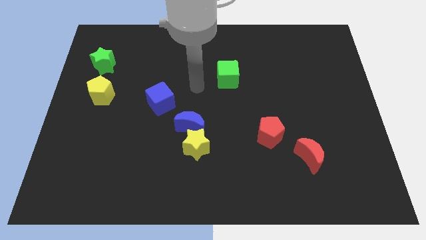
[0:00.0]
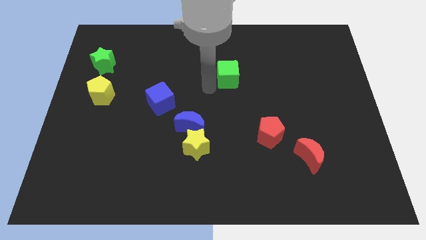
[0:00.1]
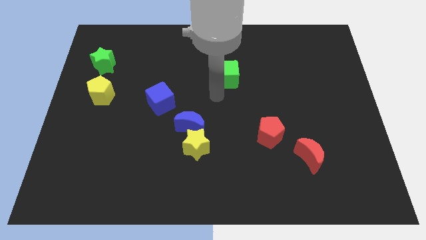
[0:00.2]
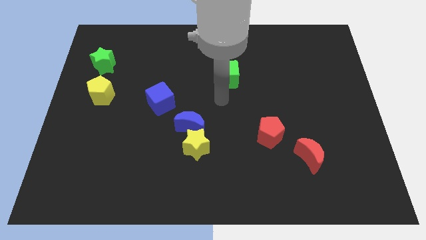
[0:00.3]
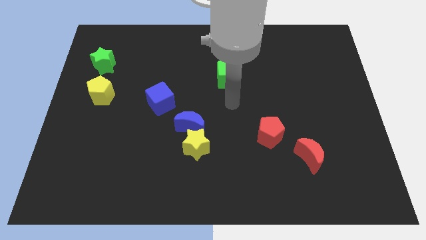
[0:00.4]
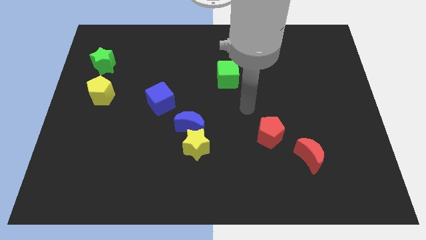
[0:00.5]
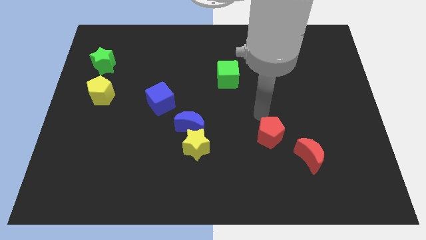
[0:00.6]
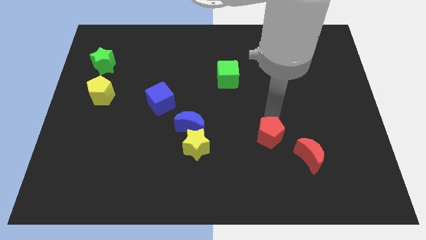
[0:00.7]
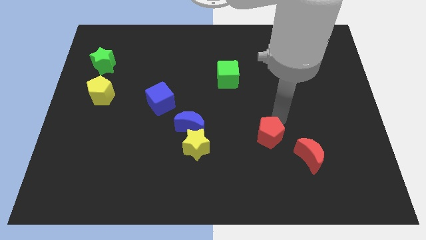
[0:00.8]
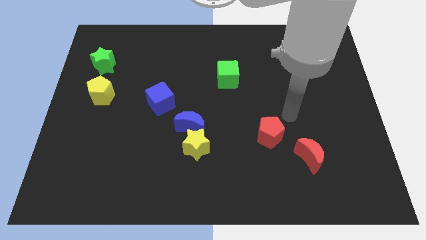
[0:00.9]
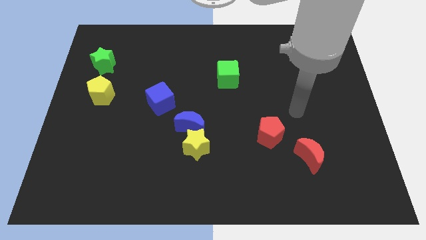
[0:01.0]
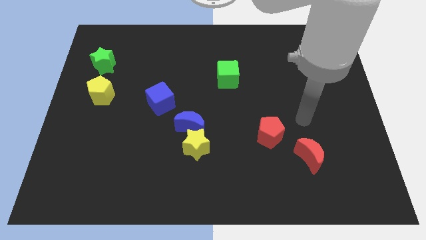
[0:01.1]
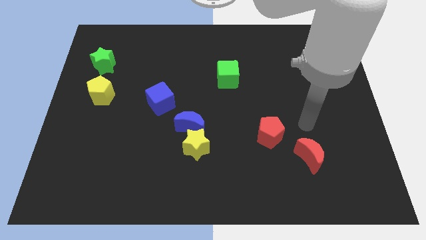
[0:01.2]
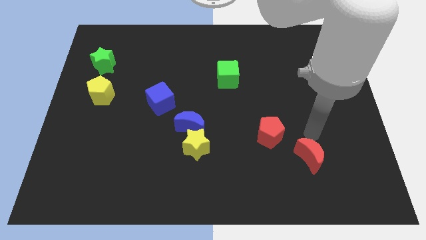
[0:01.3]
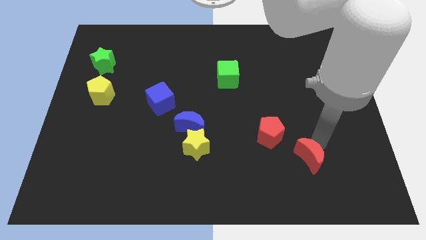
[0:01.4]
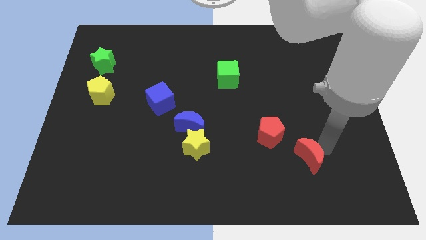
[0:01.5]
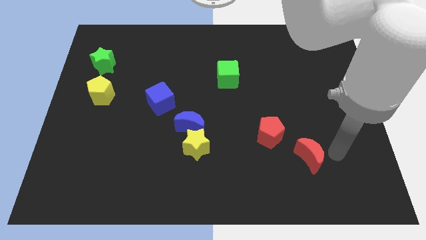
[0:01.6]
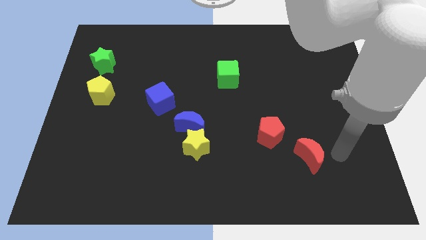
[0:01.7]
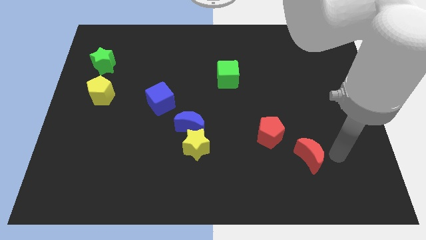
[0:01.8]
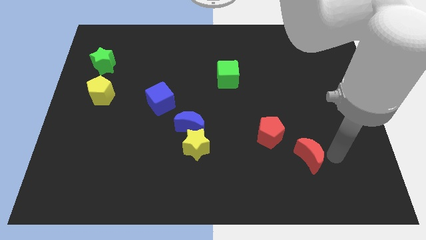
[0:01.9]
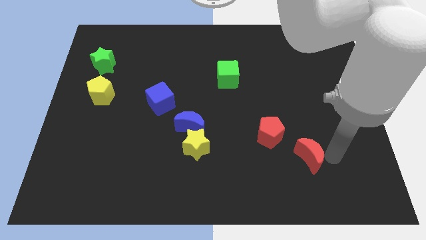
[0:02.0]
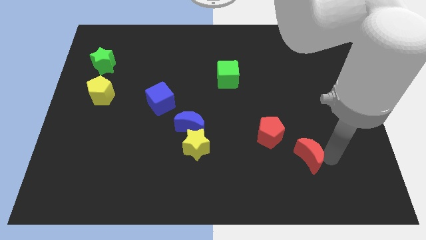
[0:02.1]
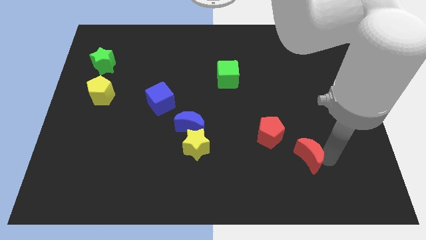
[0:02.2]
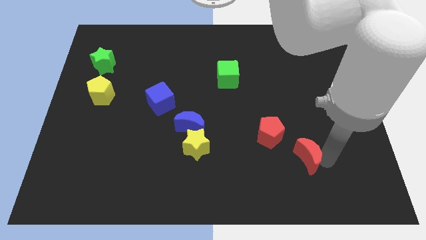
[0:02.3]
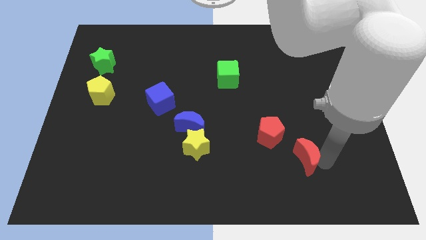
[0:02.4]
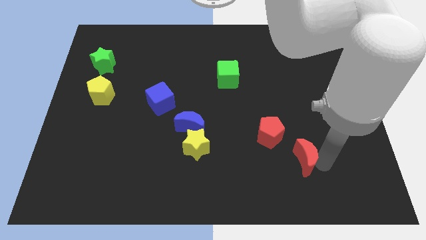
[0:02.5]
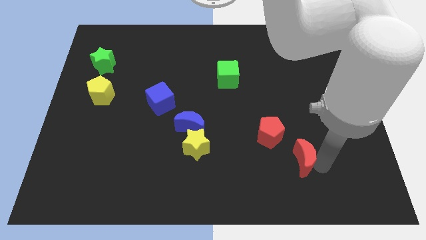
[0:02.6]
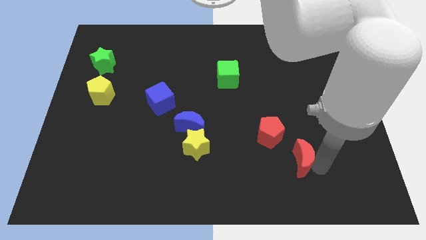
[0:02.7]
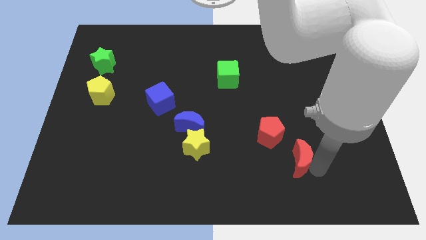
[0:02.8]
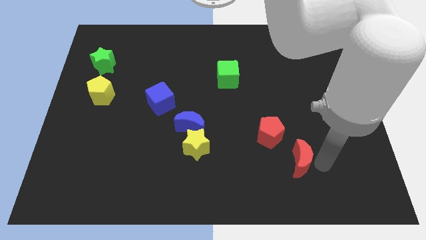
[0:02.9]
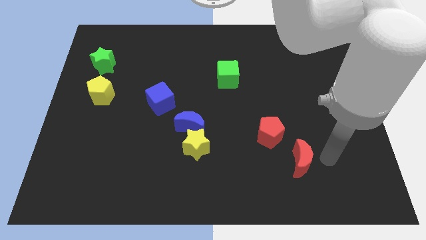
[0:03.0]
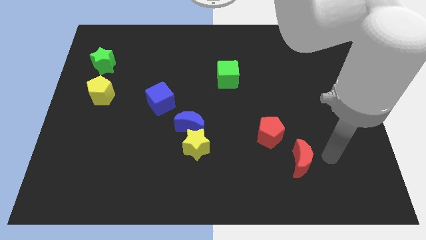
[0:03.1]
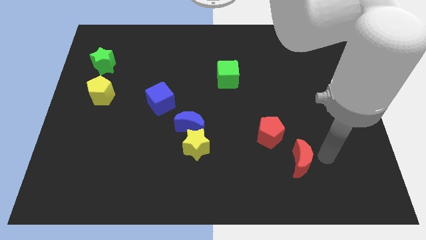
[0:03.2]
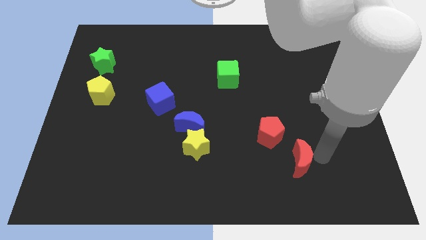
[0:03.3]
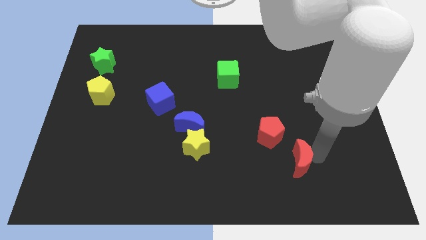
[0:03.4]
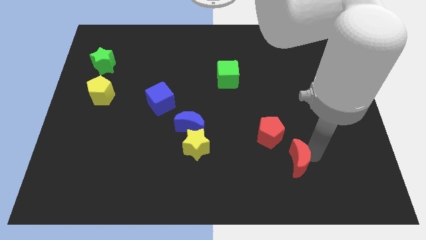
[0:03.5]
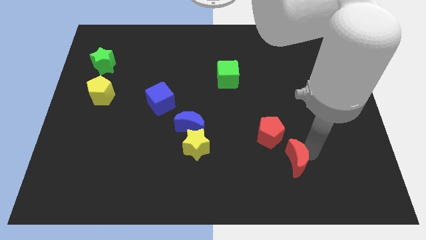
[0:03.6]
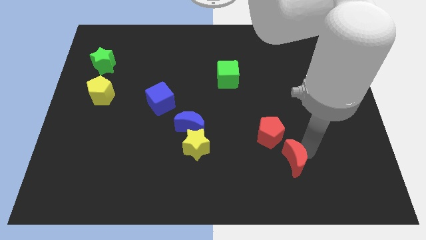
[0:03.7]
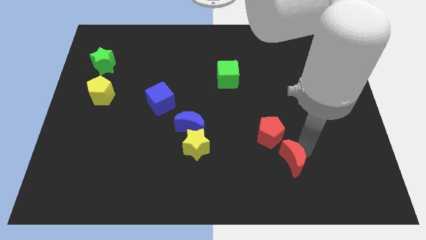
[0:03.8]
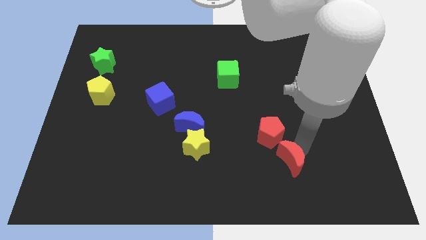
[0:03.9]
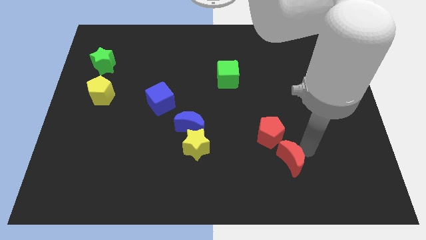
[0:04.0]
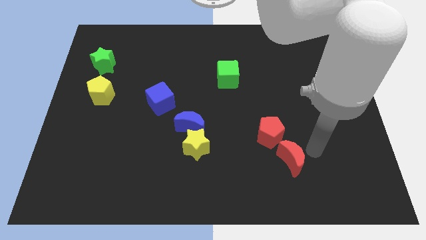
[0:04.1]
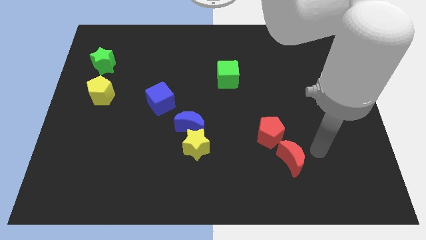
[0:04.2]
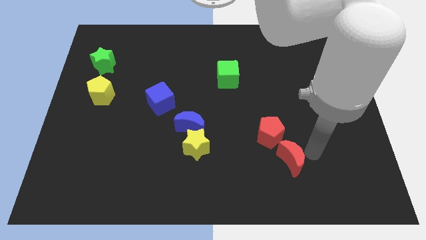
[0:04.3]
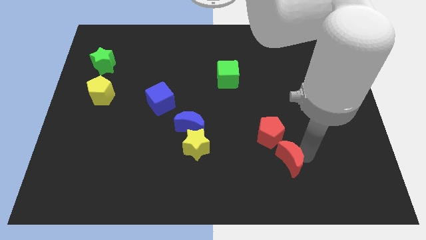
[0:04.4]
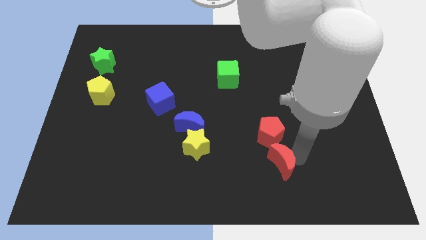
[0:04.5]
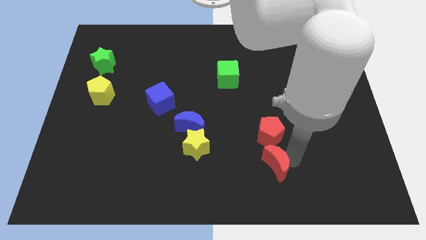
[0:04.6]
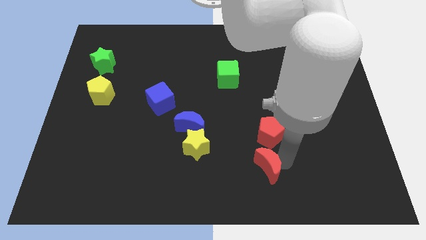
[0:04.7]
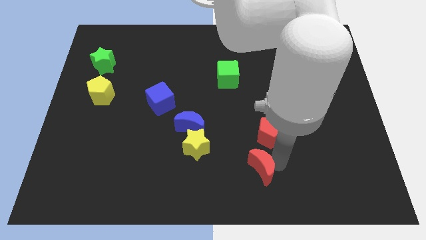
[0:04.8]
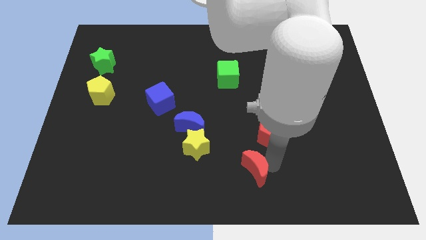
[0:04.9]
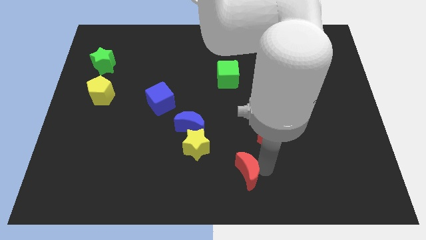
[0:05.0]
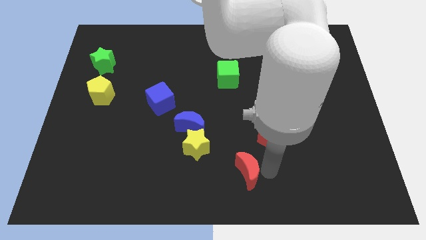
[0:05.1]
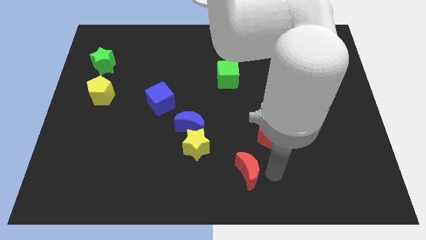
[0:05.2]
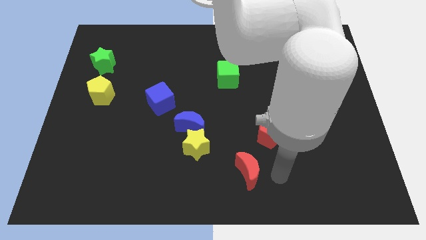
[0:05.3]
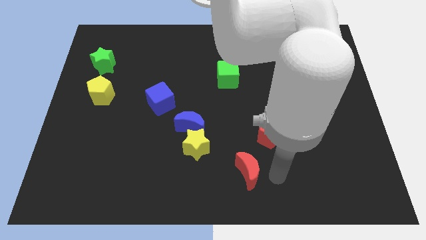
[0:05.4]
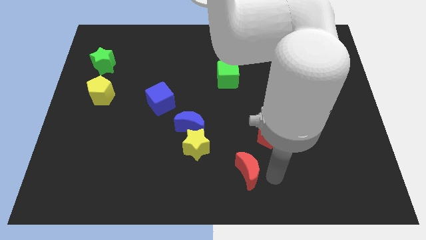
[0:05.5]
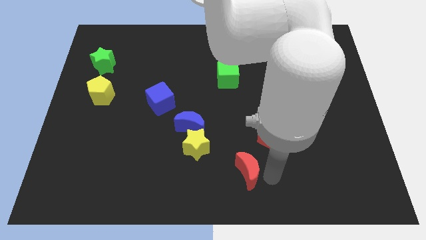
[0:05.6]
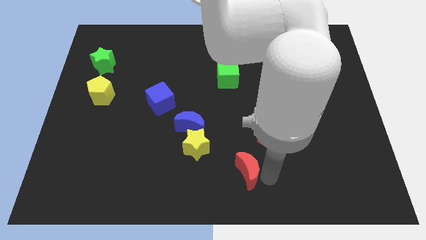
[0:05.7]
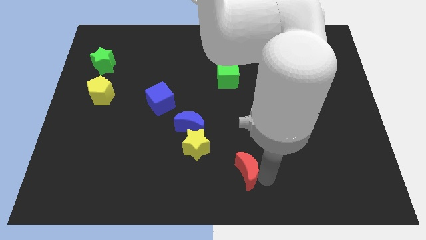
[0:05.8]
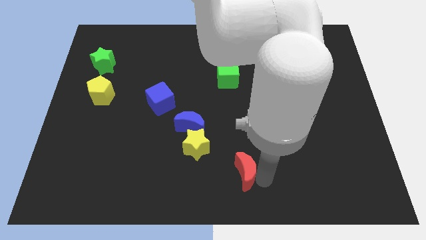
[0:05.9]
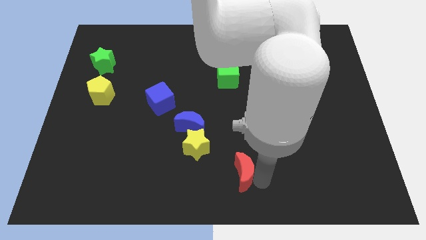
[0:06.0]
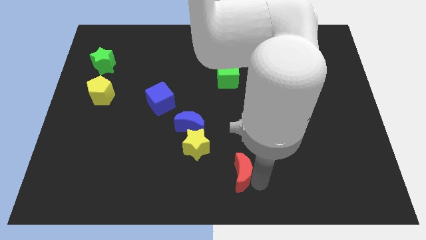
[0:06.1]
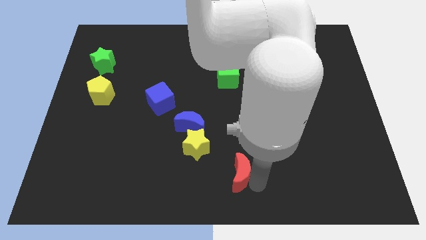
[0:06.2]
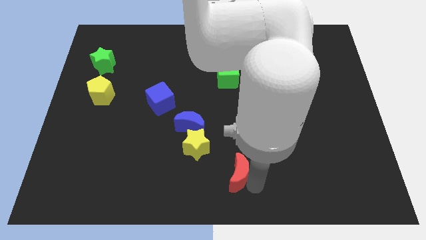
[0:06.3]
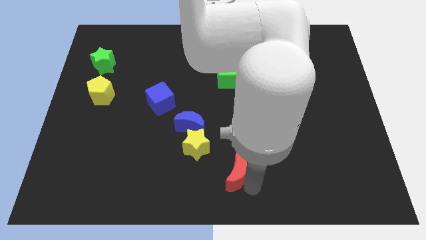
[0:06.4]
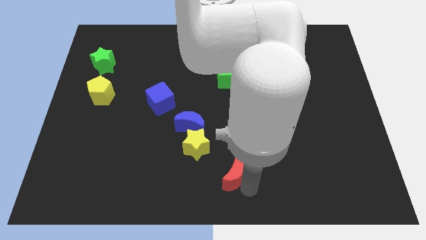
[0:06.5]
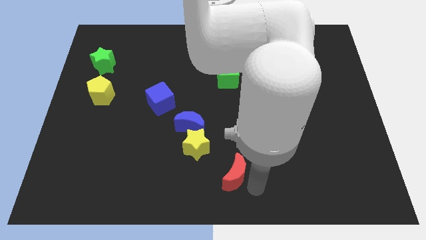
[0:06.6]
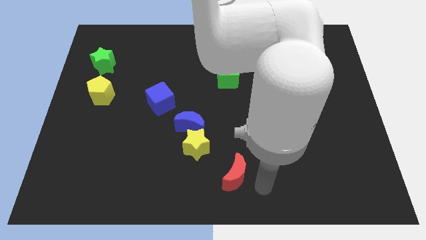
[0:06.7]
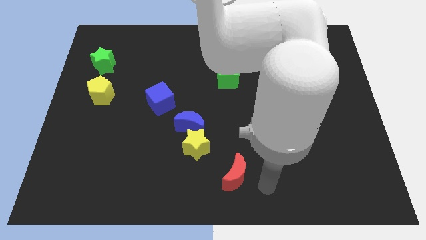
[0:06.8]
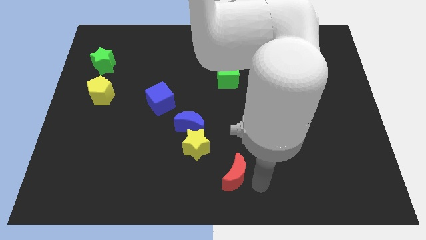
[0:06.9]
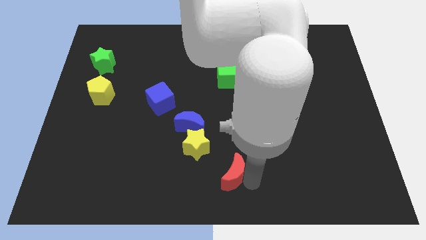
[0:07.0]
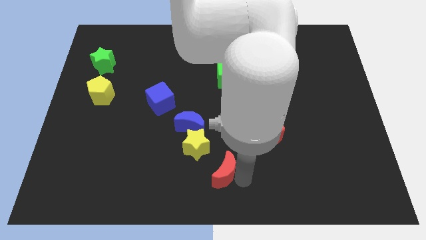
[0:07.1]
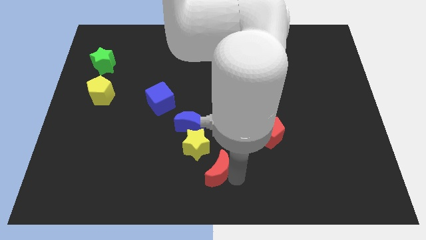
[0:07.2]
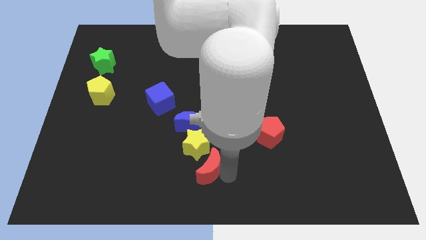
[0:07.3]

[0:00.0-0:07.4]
move the red moon to the bottom of the blue moon
